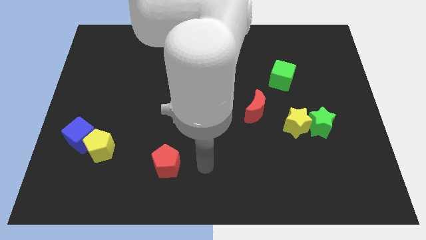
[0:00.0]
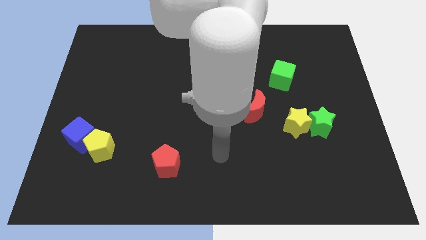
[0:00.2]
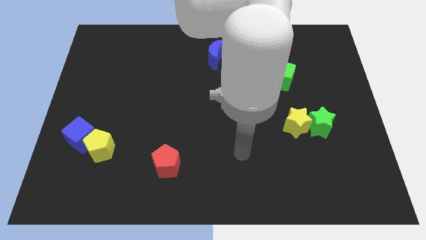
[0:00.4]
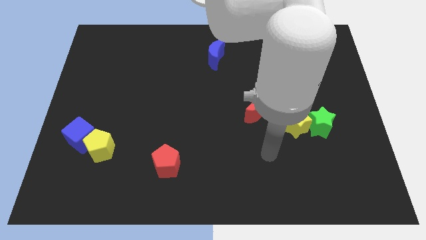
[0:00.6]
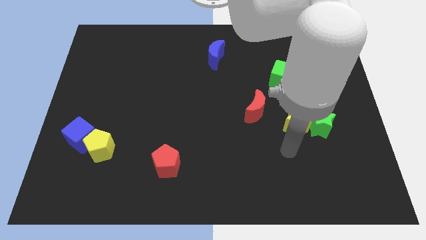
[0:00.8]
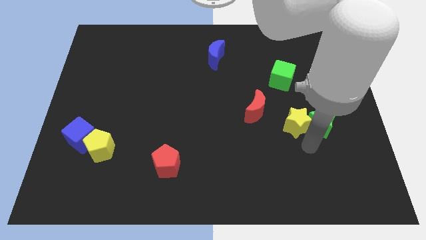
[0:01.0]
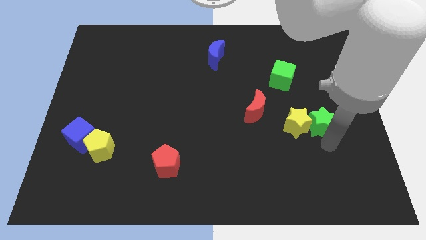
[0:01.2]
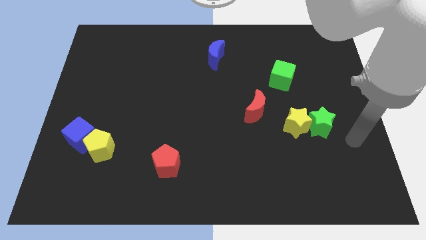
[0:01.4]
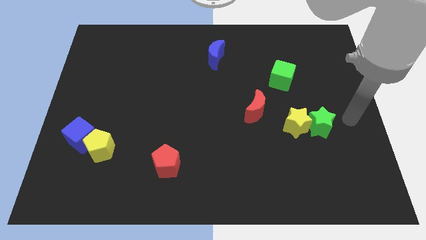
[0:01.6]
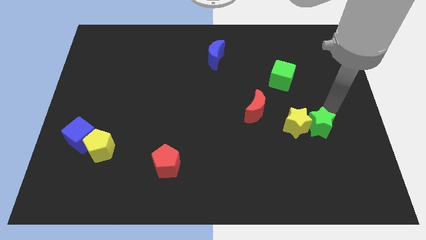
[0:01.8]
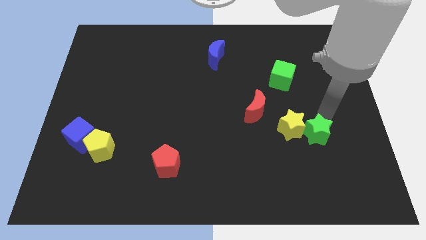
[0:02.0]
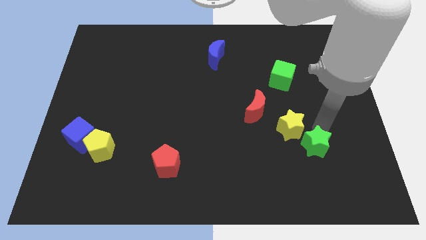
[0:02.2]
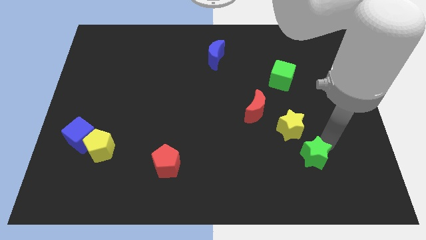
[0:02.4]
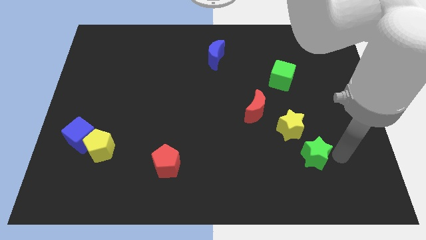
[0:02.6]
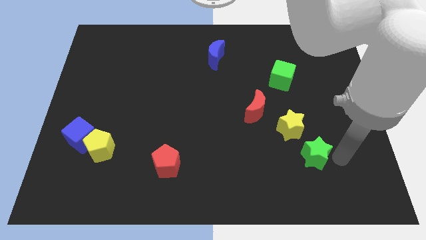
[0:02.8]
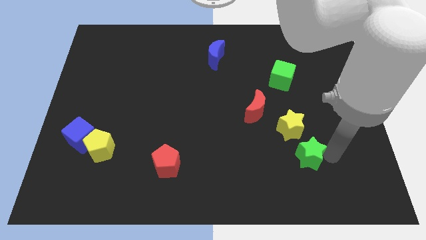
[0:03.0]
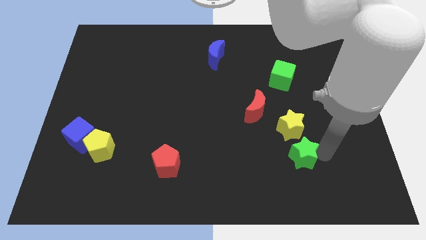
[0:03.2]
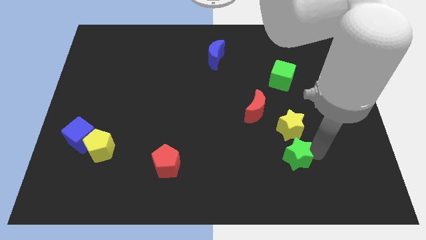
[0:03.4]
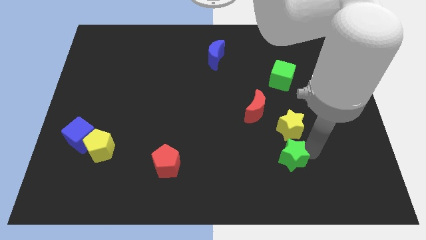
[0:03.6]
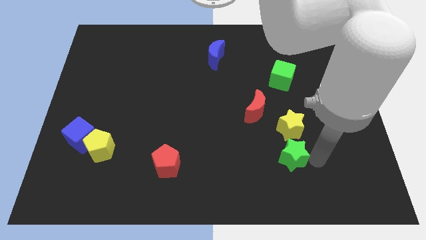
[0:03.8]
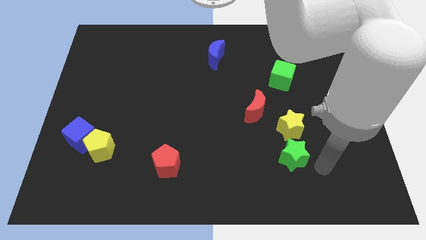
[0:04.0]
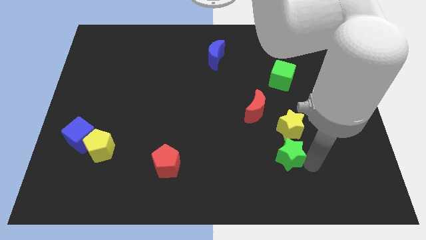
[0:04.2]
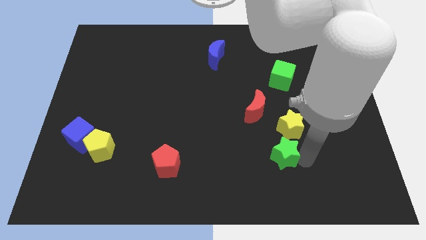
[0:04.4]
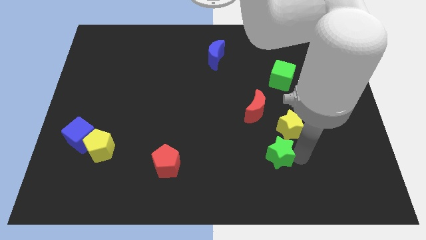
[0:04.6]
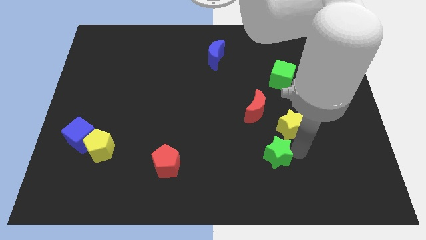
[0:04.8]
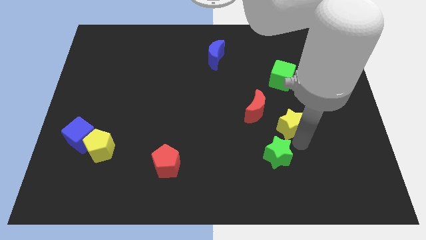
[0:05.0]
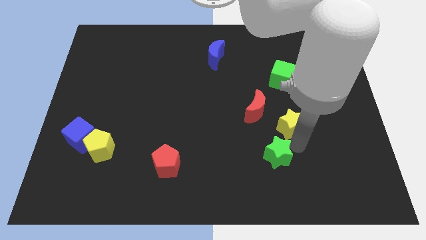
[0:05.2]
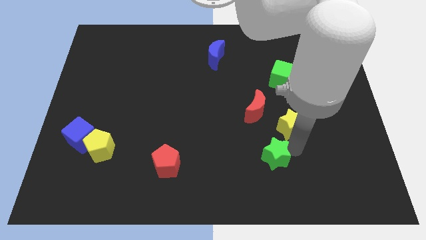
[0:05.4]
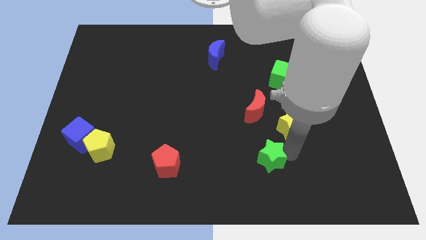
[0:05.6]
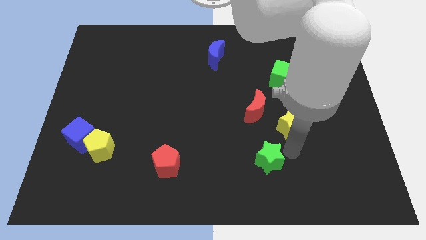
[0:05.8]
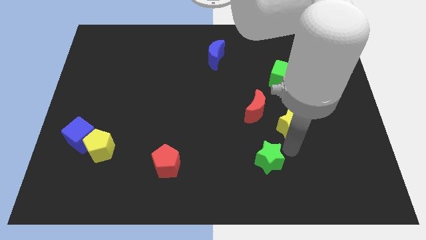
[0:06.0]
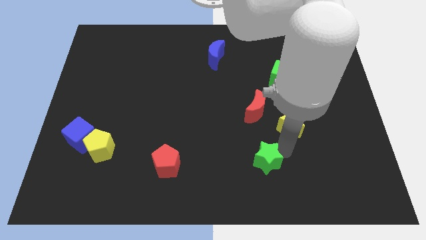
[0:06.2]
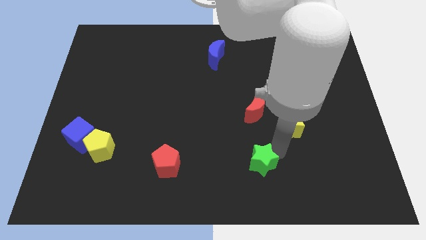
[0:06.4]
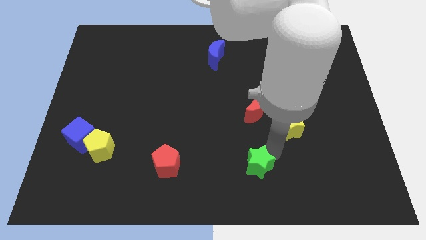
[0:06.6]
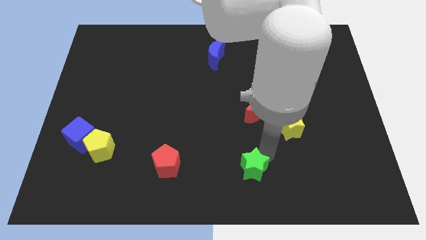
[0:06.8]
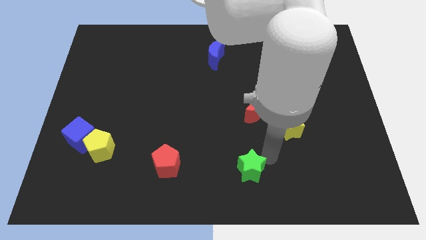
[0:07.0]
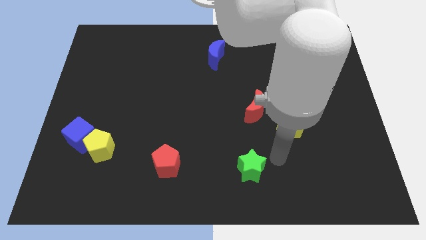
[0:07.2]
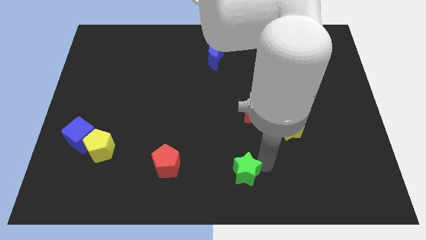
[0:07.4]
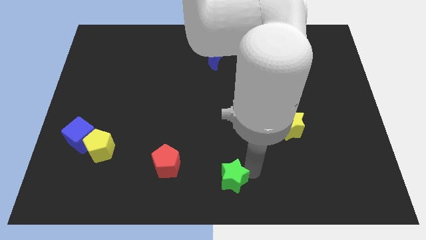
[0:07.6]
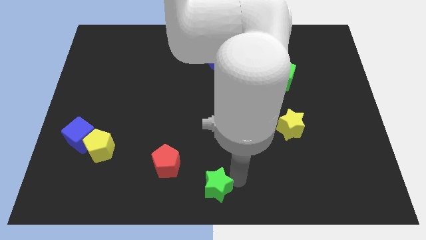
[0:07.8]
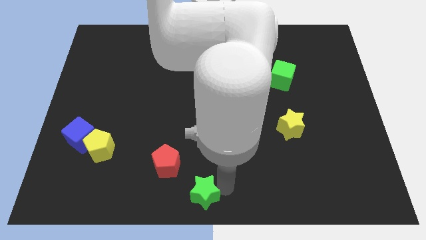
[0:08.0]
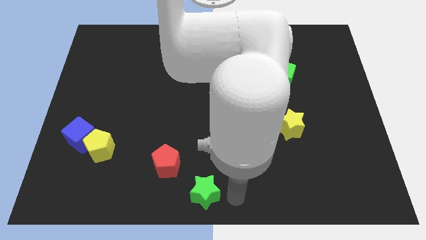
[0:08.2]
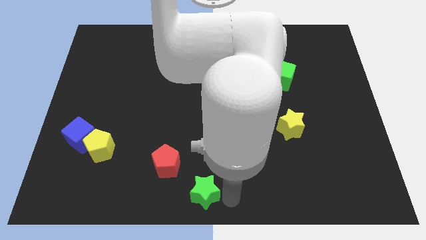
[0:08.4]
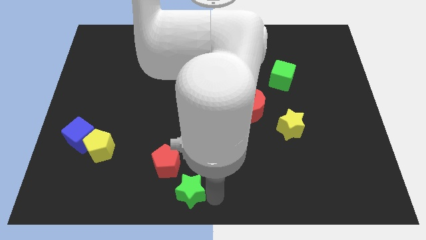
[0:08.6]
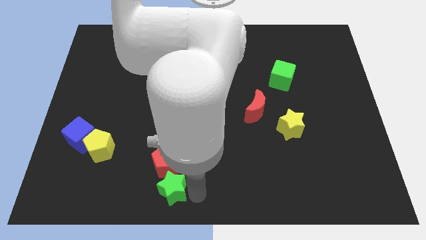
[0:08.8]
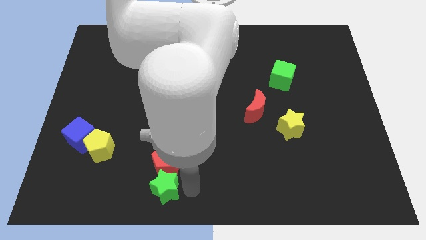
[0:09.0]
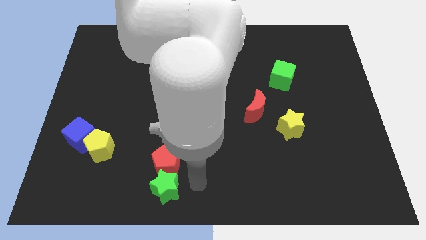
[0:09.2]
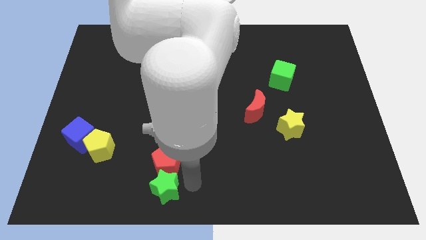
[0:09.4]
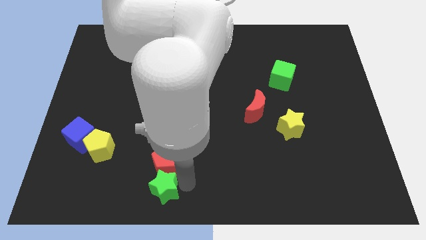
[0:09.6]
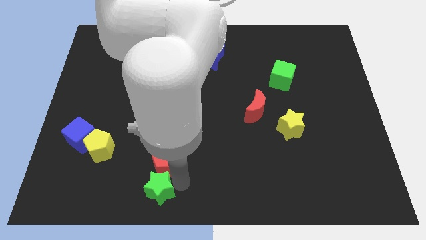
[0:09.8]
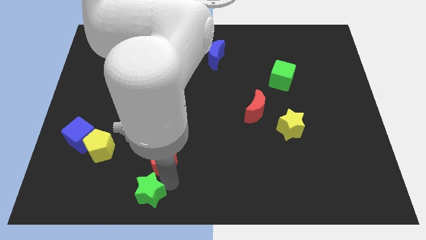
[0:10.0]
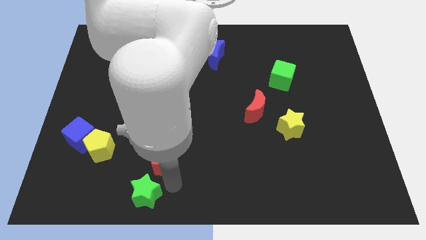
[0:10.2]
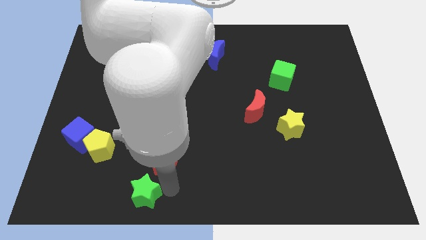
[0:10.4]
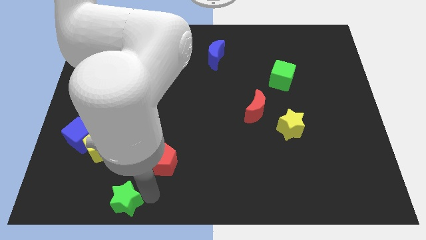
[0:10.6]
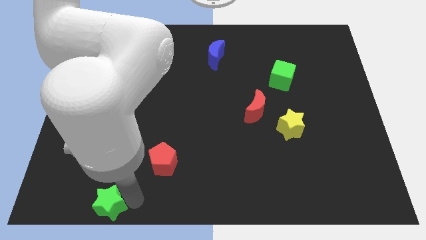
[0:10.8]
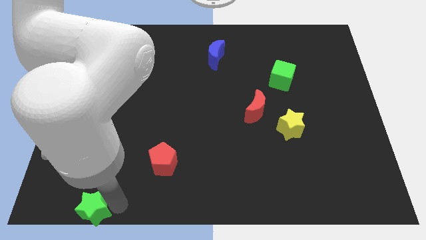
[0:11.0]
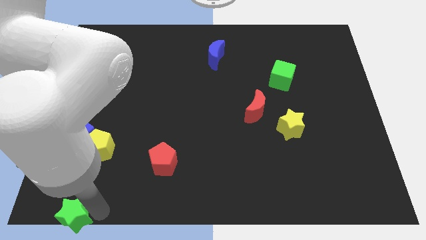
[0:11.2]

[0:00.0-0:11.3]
put the green star to the bottom left
